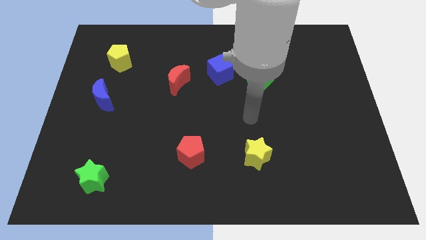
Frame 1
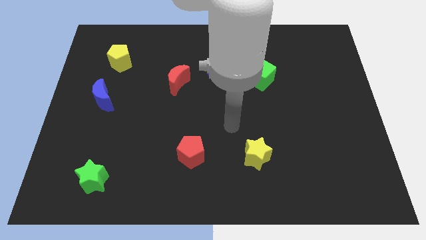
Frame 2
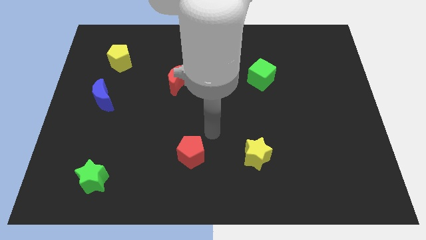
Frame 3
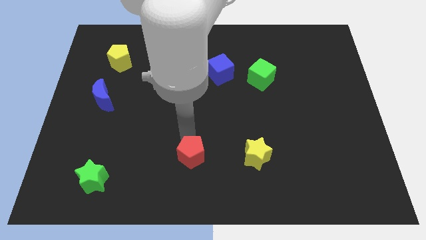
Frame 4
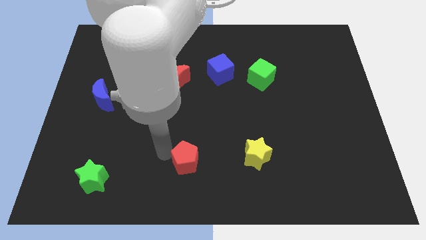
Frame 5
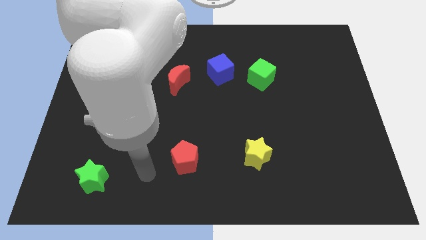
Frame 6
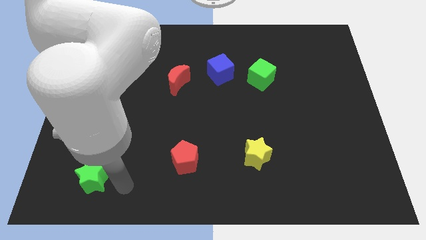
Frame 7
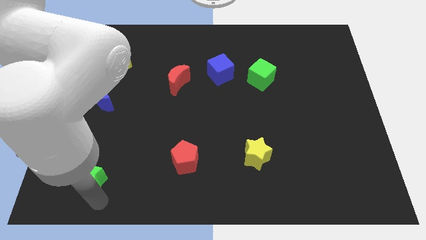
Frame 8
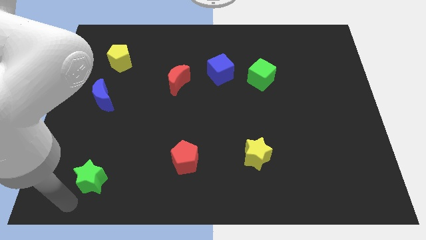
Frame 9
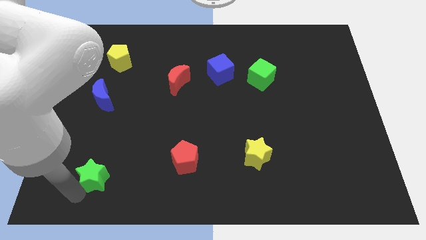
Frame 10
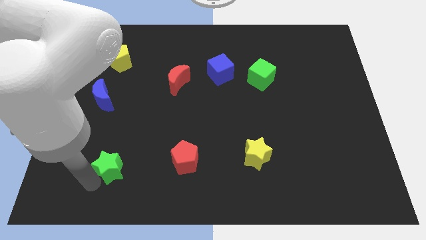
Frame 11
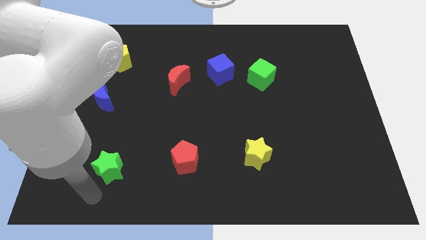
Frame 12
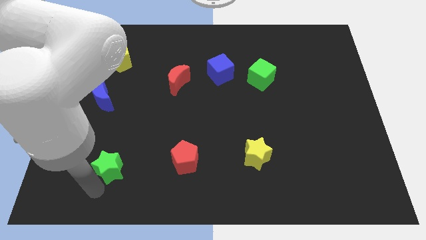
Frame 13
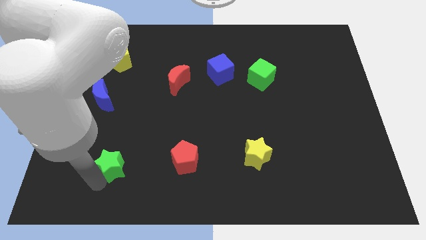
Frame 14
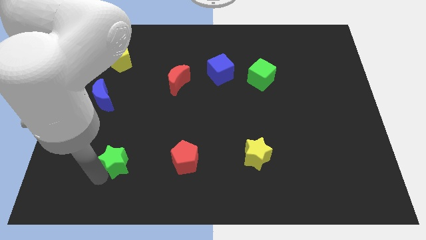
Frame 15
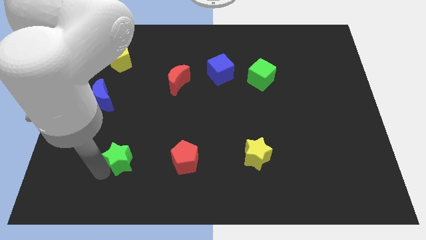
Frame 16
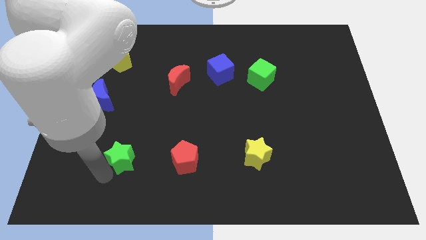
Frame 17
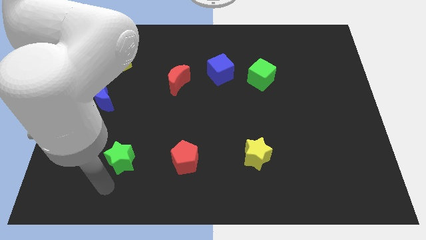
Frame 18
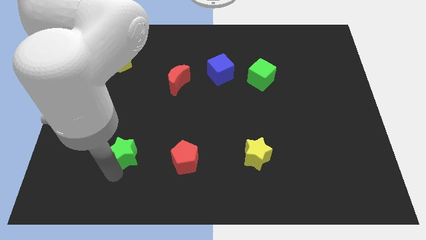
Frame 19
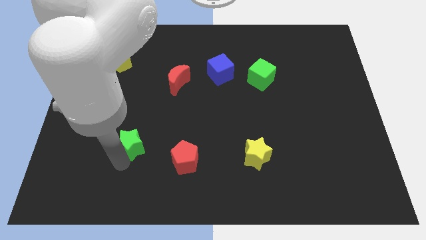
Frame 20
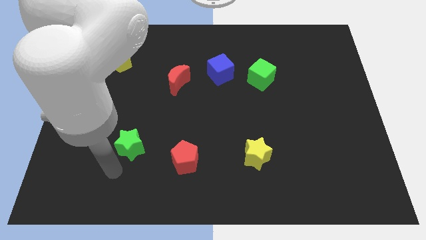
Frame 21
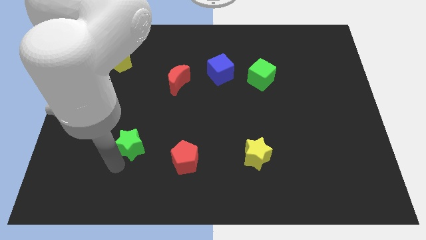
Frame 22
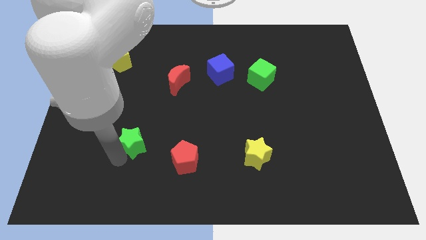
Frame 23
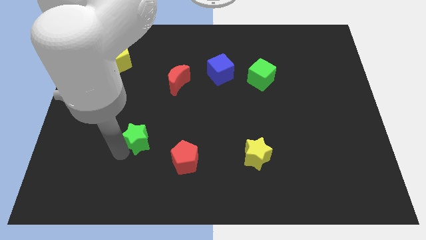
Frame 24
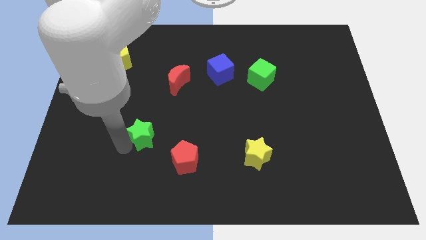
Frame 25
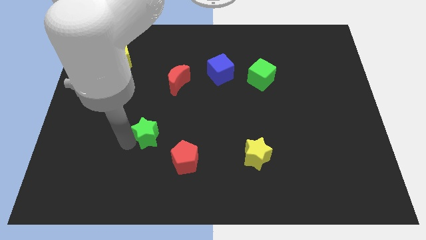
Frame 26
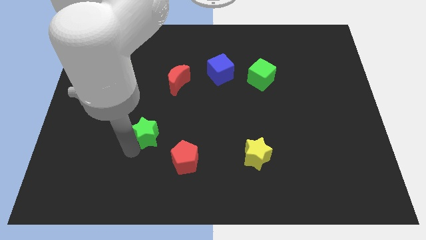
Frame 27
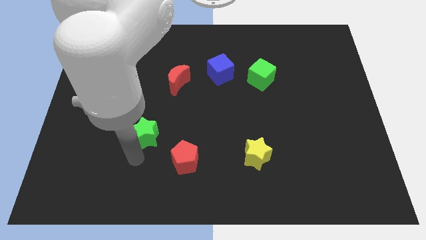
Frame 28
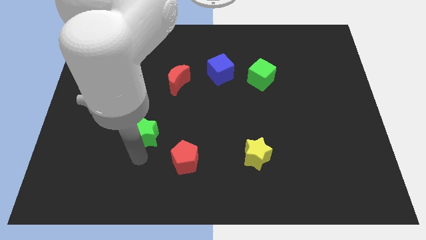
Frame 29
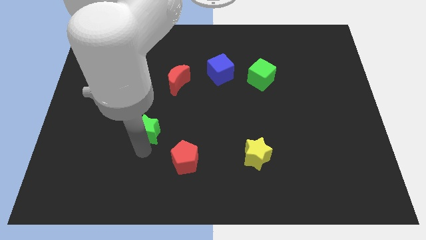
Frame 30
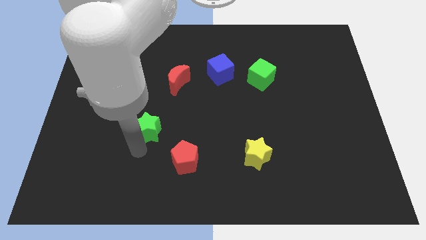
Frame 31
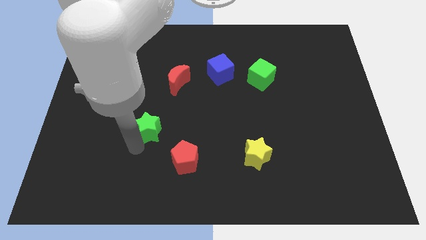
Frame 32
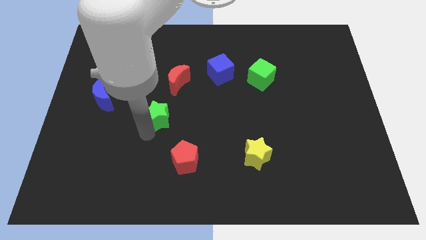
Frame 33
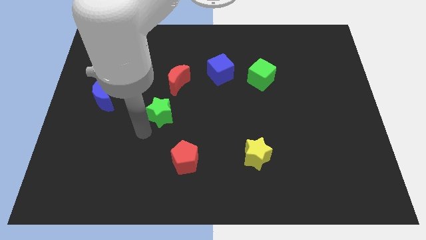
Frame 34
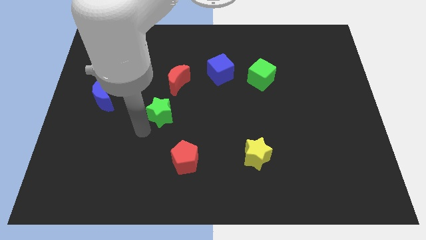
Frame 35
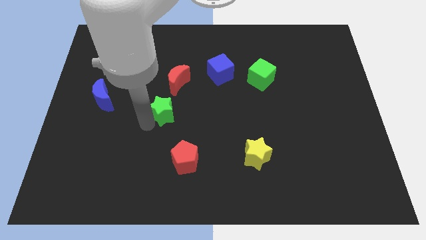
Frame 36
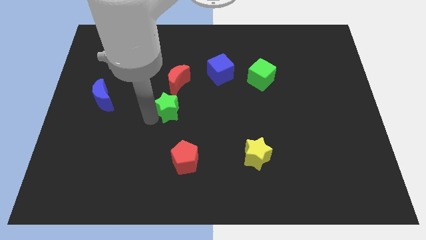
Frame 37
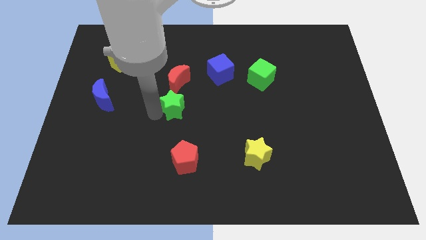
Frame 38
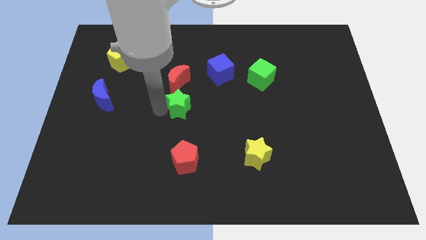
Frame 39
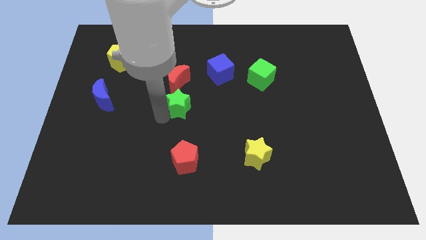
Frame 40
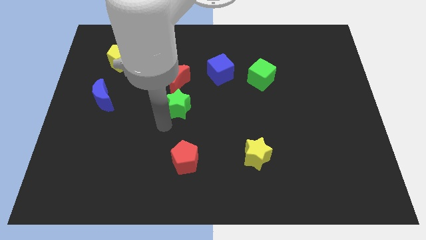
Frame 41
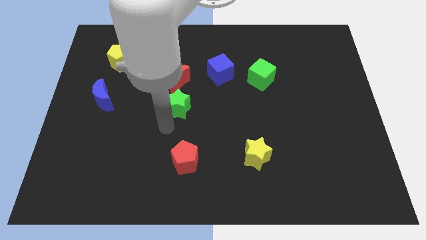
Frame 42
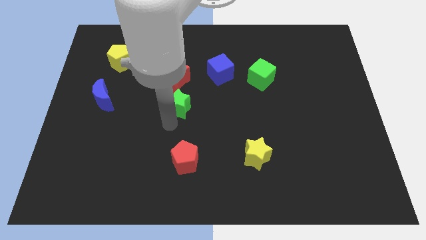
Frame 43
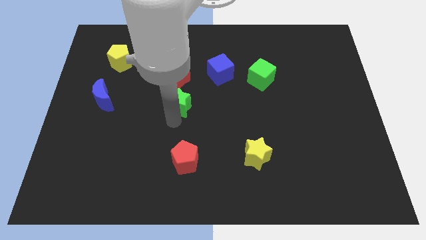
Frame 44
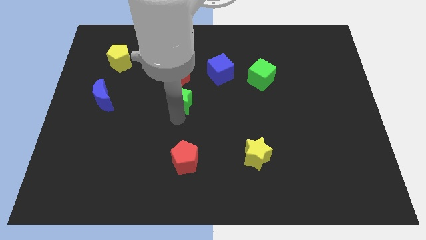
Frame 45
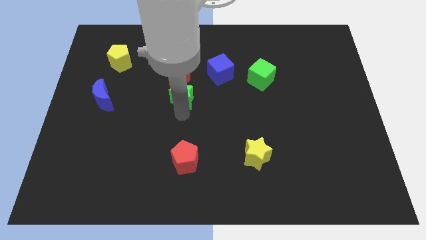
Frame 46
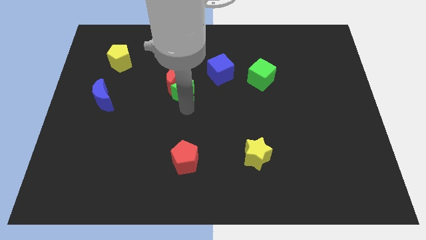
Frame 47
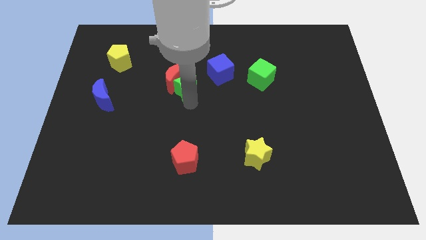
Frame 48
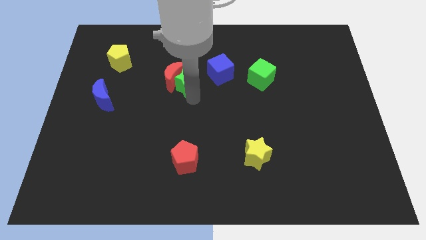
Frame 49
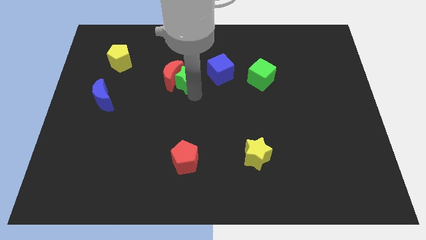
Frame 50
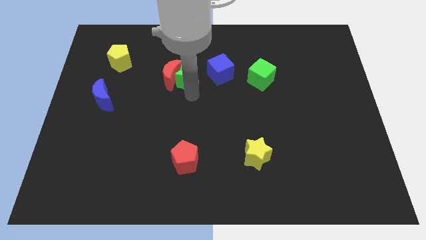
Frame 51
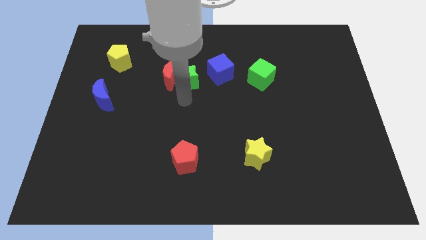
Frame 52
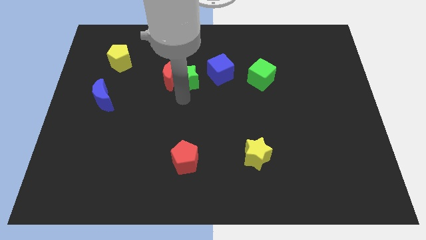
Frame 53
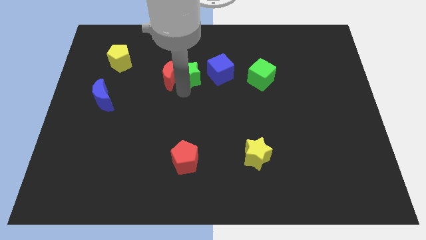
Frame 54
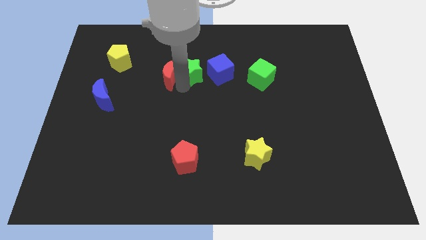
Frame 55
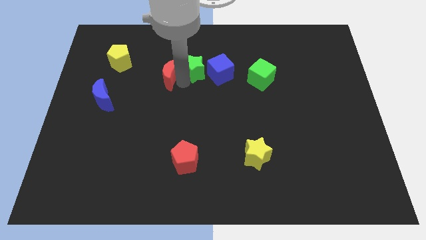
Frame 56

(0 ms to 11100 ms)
push the green star to the top left side of the blue cube

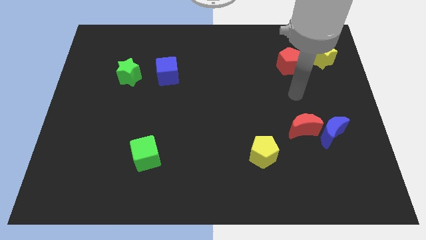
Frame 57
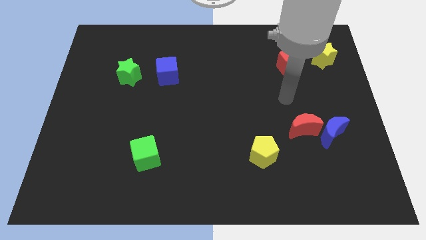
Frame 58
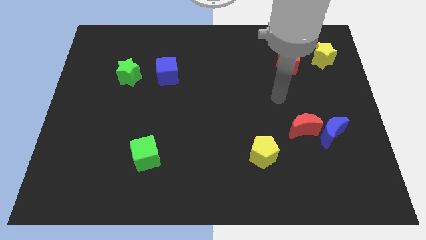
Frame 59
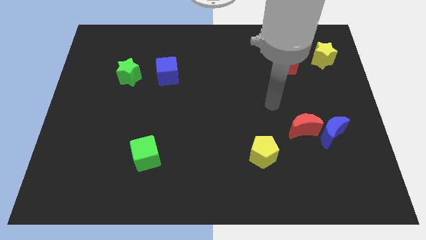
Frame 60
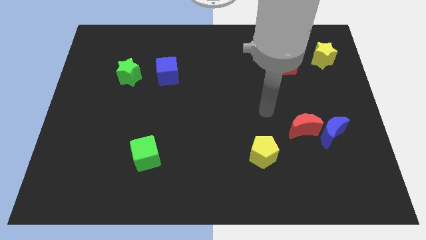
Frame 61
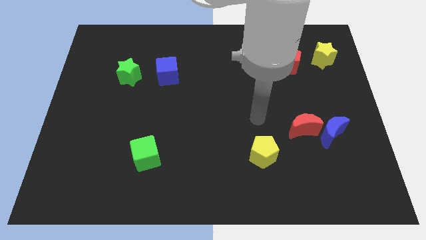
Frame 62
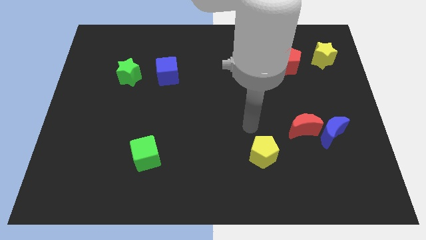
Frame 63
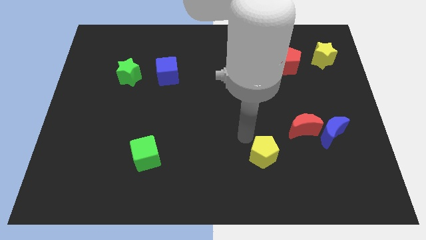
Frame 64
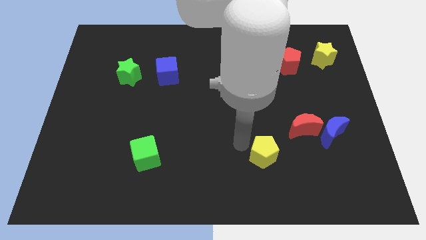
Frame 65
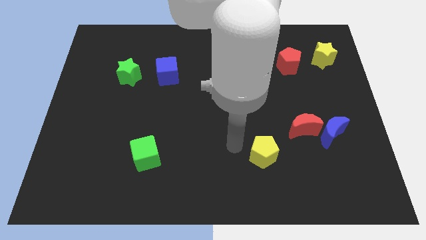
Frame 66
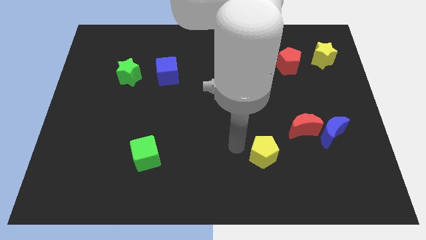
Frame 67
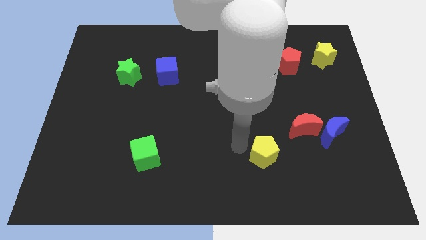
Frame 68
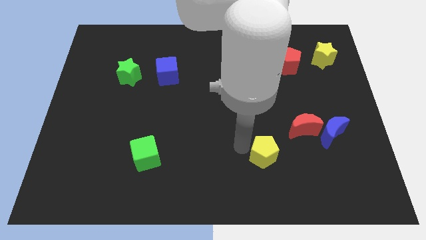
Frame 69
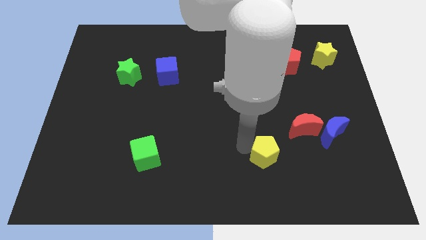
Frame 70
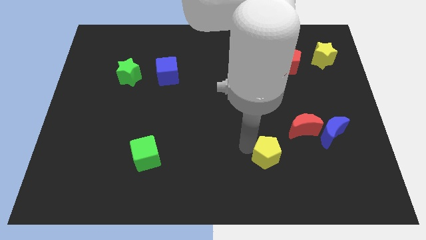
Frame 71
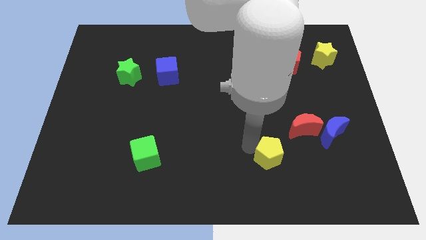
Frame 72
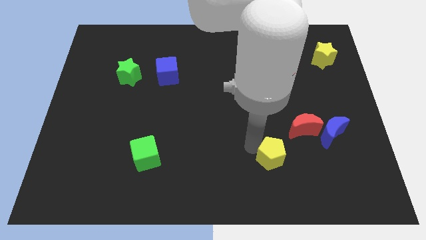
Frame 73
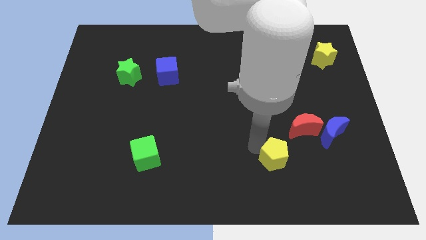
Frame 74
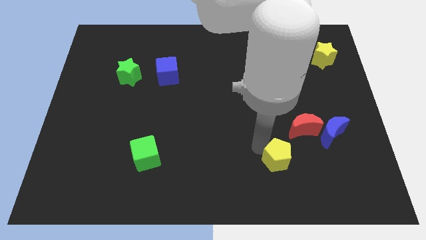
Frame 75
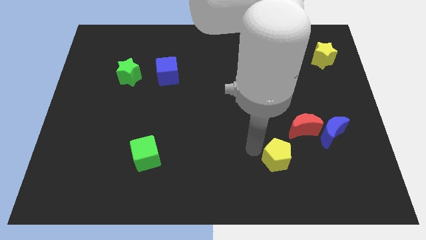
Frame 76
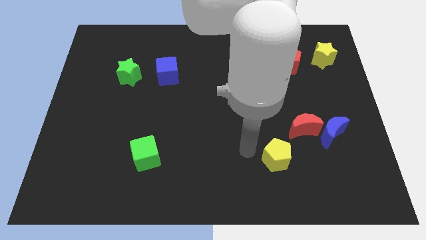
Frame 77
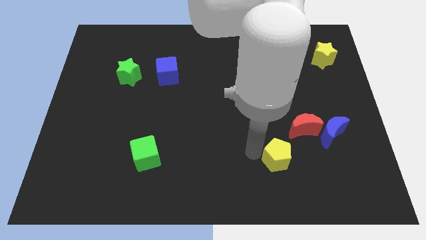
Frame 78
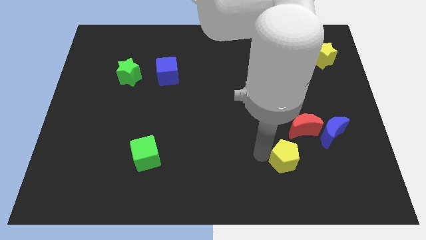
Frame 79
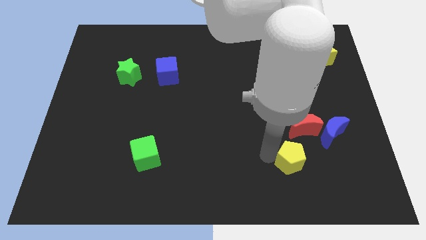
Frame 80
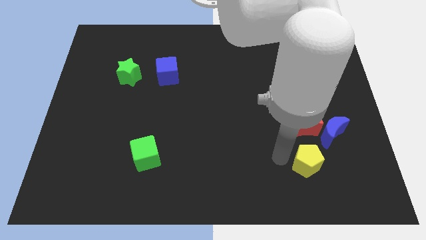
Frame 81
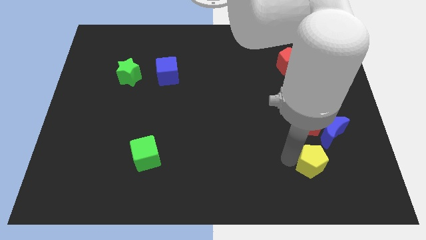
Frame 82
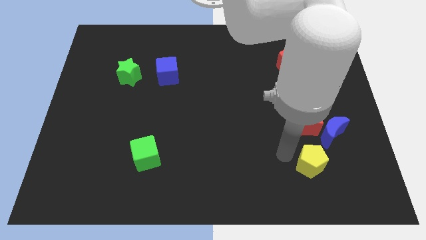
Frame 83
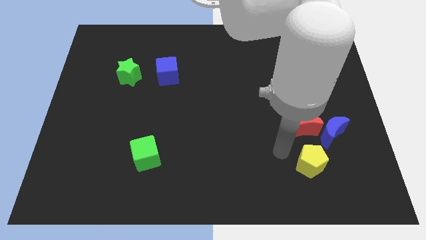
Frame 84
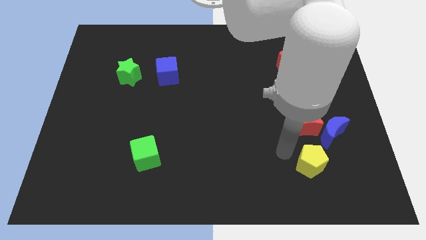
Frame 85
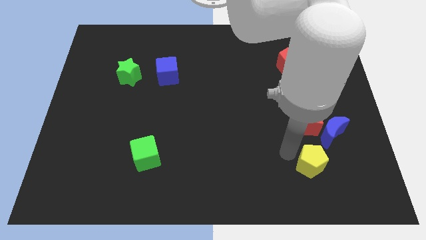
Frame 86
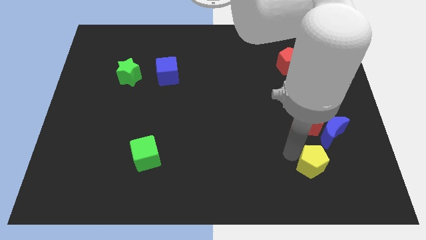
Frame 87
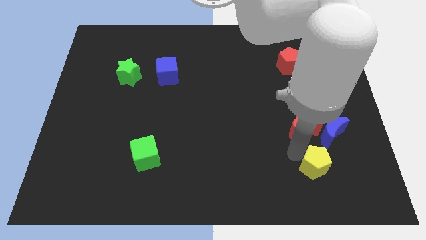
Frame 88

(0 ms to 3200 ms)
put the yellow pentagon to the bottom side of the blue moon
